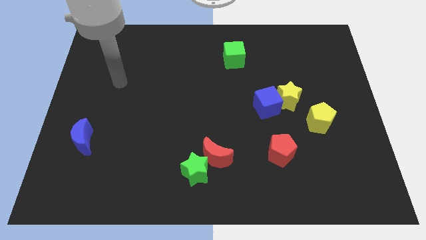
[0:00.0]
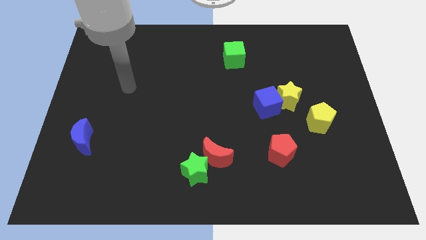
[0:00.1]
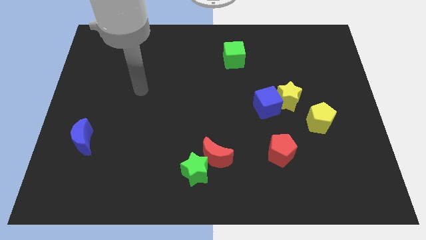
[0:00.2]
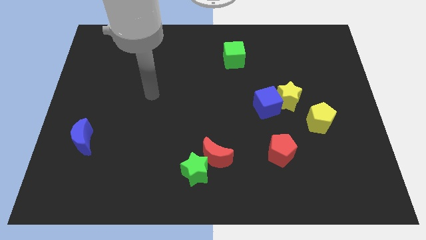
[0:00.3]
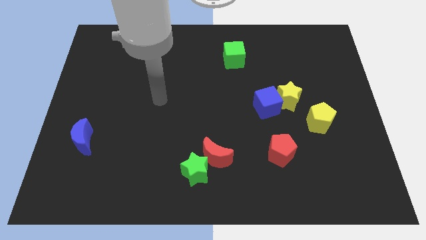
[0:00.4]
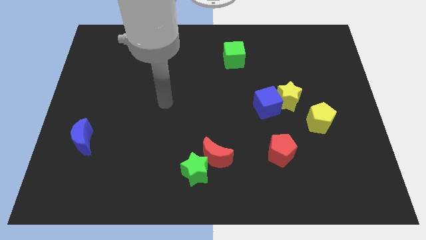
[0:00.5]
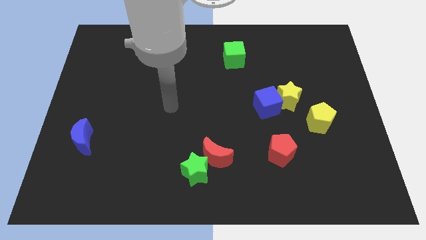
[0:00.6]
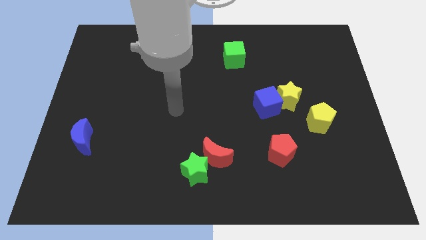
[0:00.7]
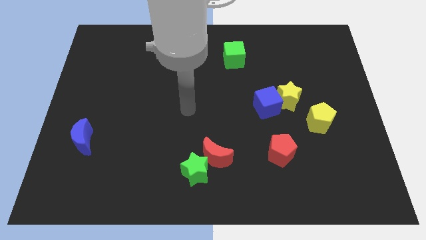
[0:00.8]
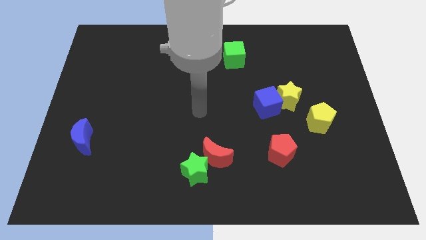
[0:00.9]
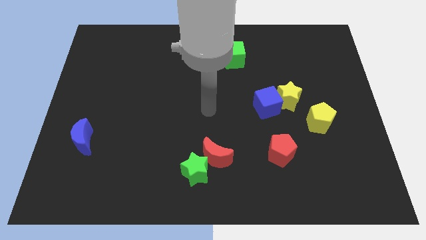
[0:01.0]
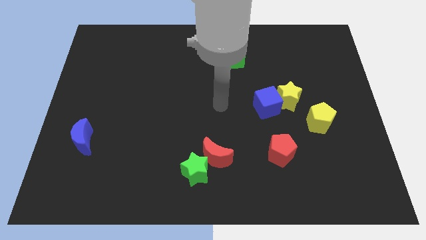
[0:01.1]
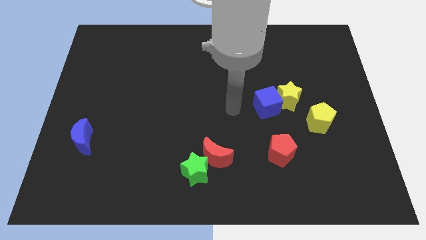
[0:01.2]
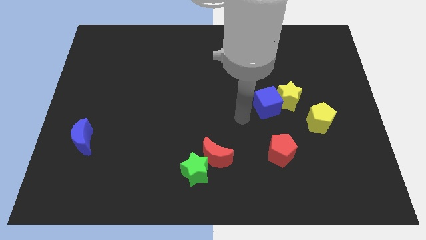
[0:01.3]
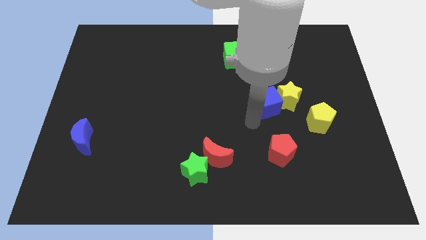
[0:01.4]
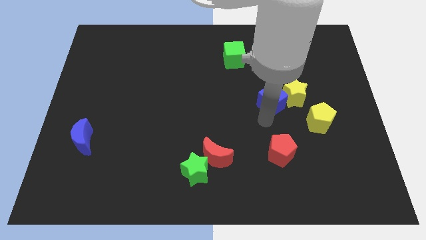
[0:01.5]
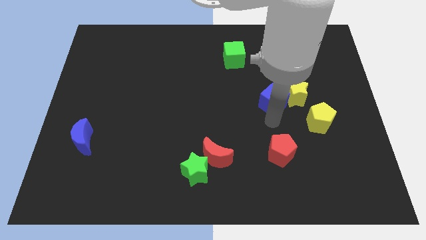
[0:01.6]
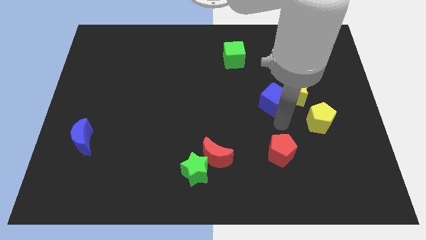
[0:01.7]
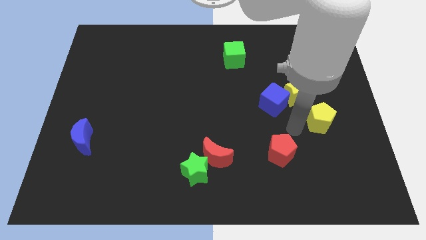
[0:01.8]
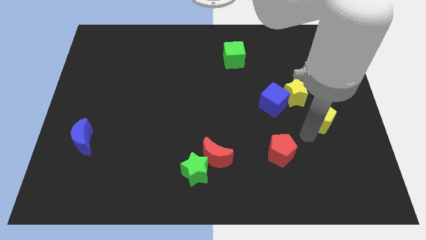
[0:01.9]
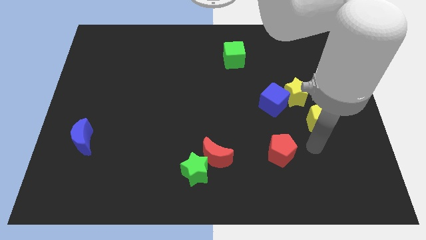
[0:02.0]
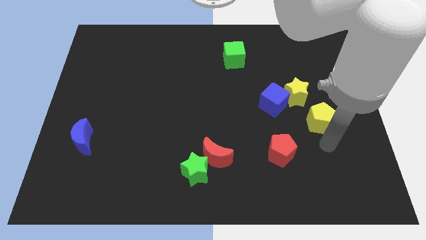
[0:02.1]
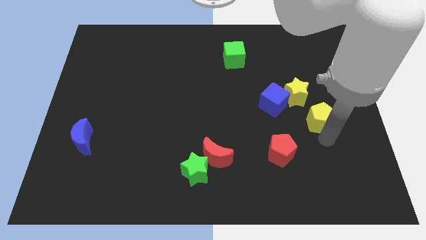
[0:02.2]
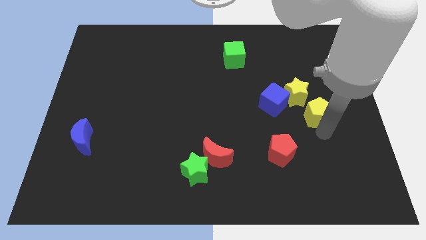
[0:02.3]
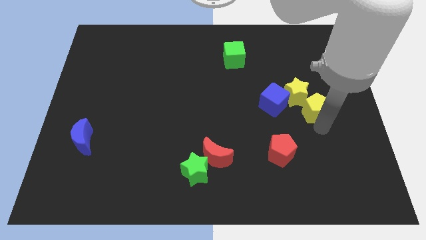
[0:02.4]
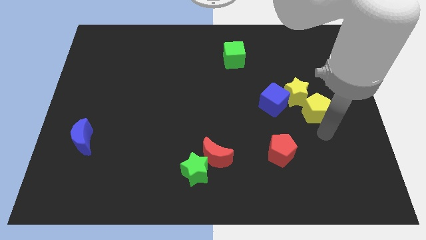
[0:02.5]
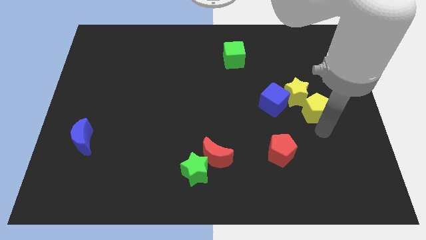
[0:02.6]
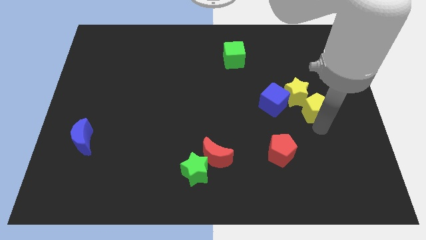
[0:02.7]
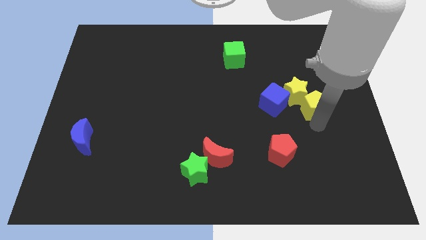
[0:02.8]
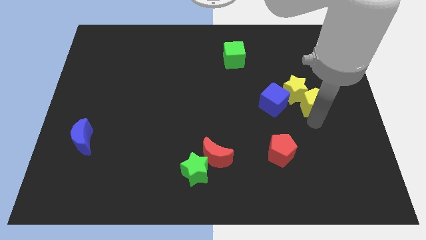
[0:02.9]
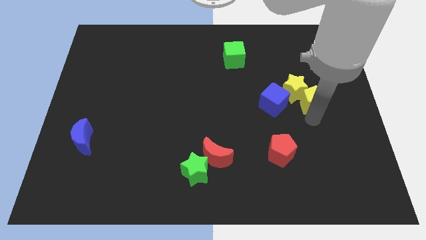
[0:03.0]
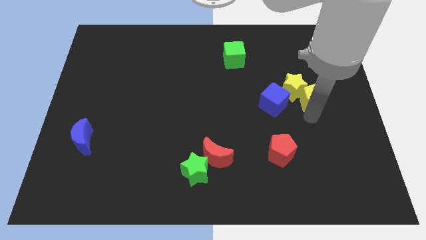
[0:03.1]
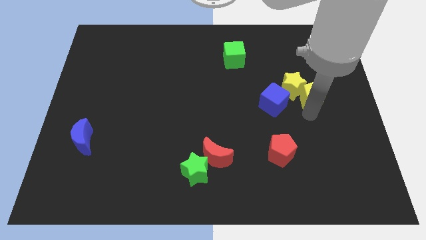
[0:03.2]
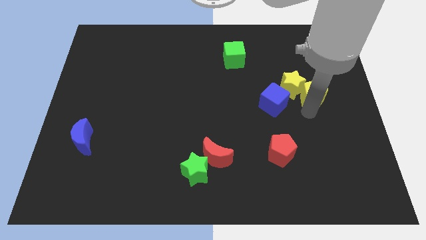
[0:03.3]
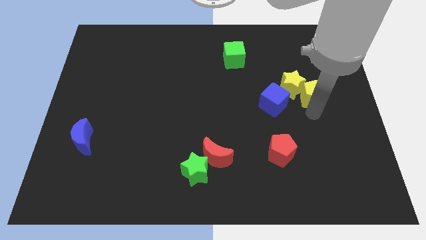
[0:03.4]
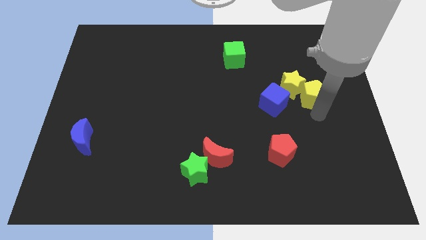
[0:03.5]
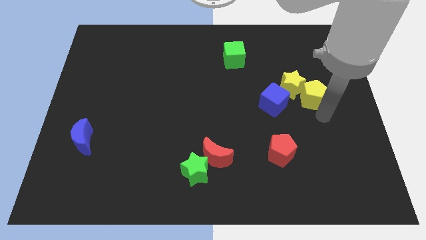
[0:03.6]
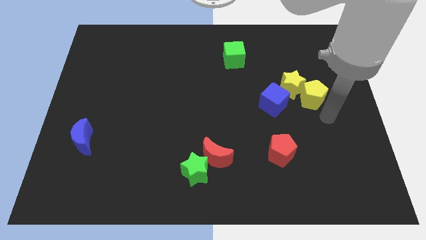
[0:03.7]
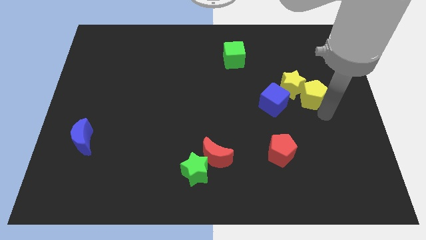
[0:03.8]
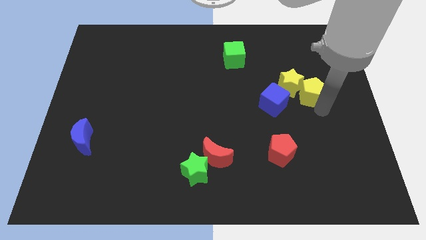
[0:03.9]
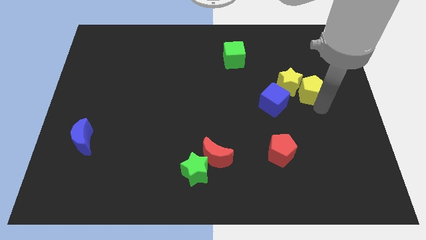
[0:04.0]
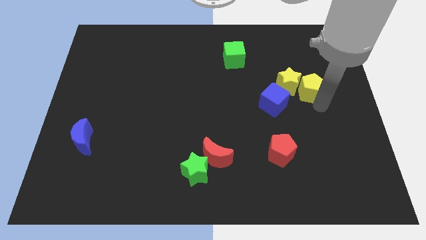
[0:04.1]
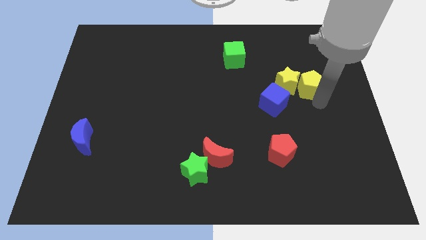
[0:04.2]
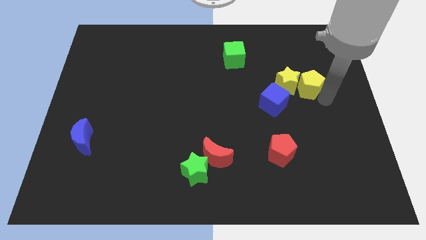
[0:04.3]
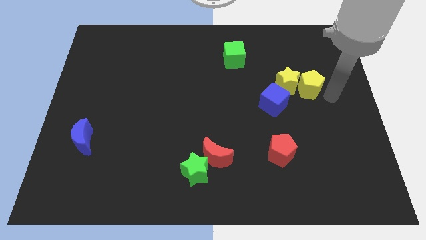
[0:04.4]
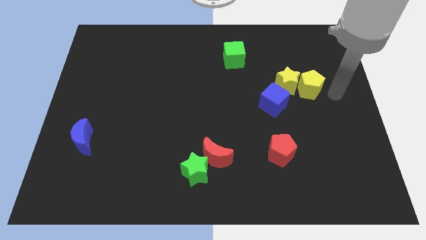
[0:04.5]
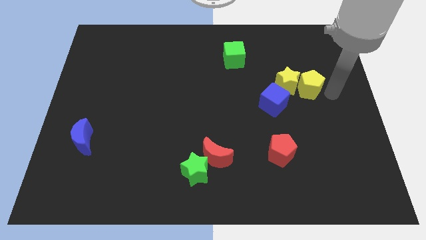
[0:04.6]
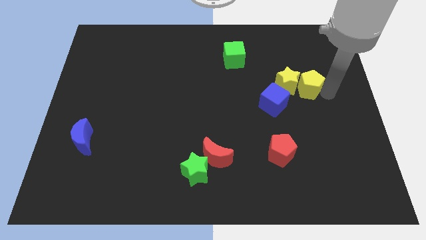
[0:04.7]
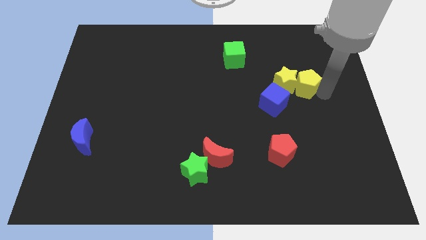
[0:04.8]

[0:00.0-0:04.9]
push the yellow pentagon a bit upwards and then left

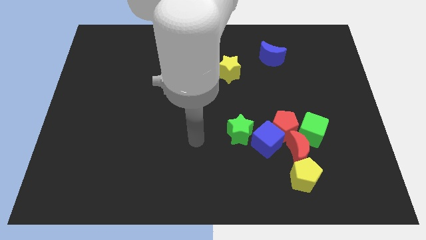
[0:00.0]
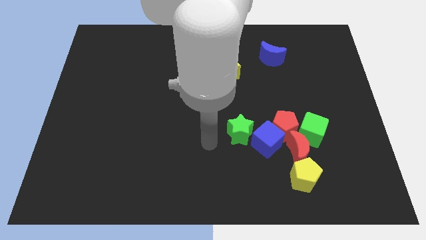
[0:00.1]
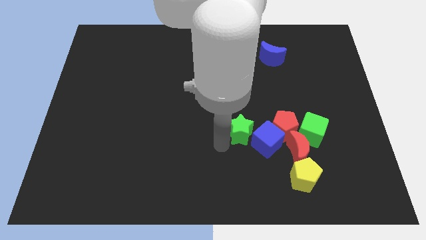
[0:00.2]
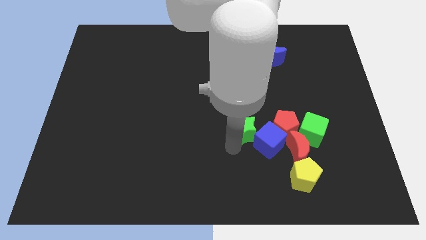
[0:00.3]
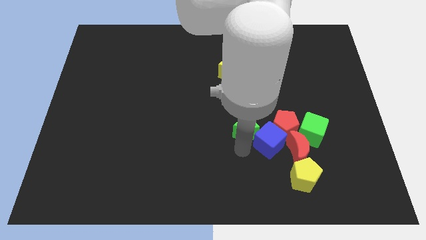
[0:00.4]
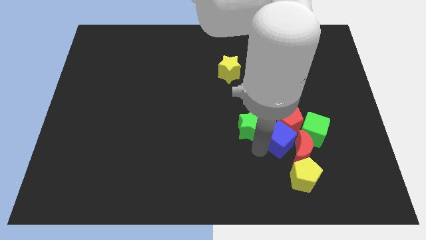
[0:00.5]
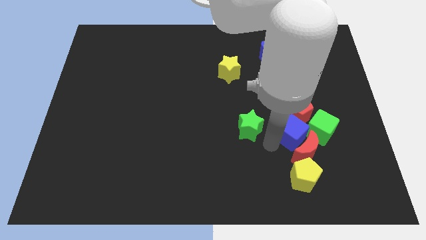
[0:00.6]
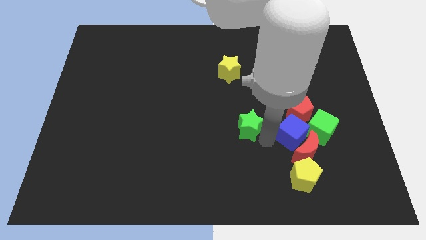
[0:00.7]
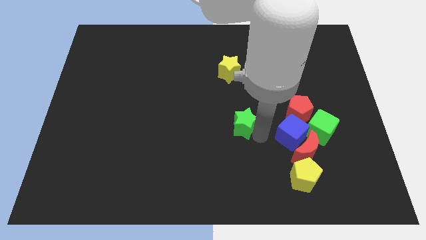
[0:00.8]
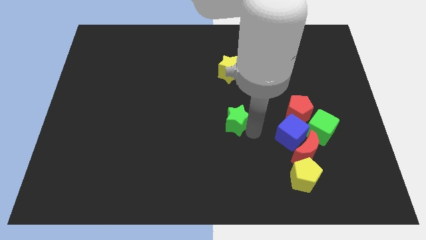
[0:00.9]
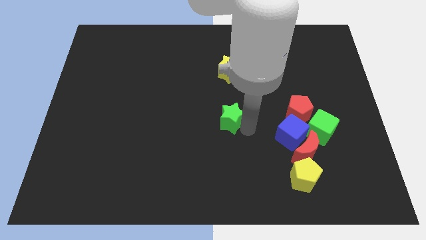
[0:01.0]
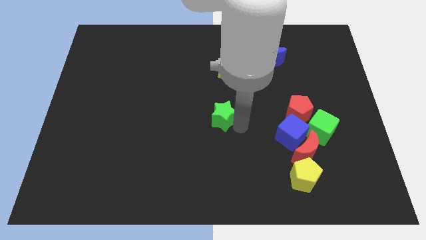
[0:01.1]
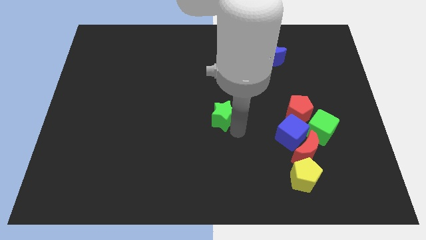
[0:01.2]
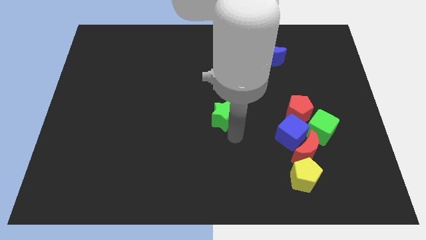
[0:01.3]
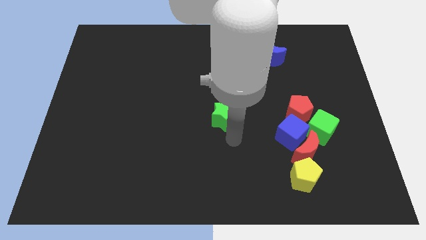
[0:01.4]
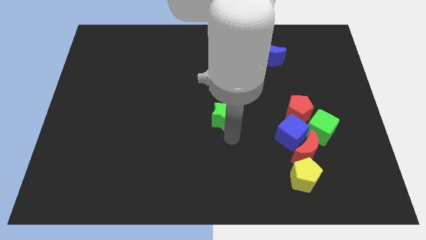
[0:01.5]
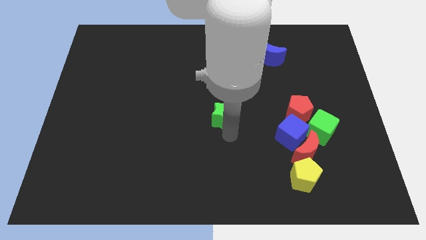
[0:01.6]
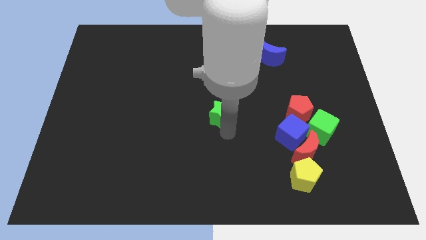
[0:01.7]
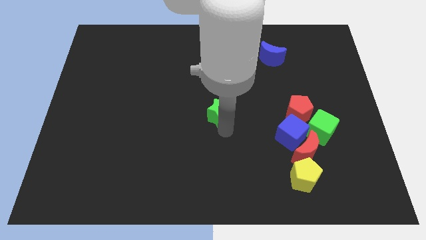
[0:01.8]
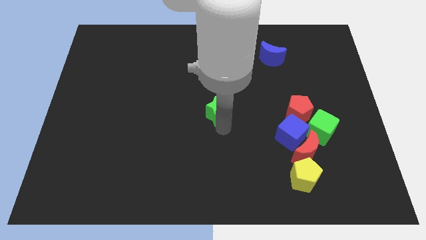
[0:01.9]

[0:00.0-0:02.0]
slightly slide the green star upwards and left diagonally

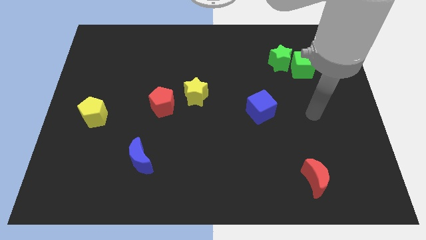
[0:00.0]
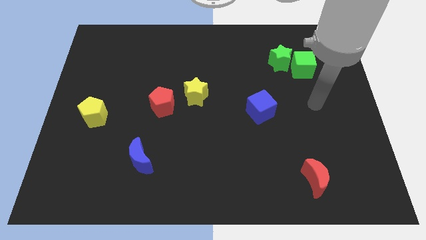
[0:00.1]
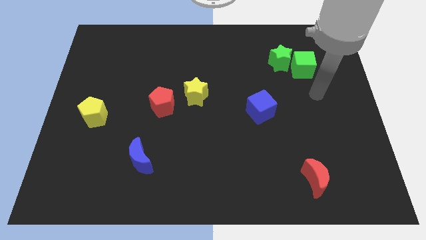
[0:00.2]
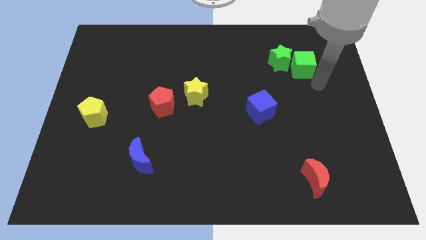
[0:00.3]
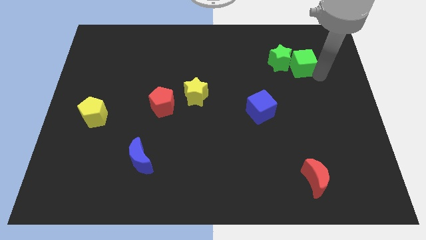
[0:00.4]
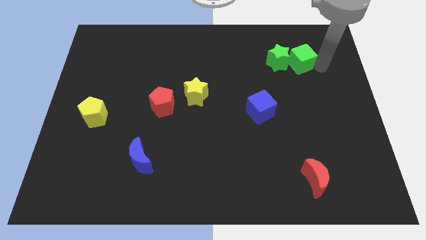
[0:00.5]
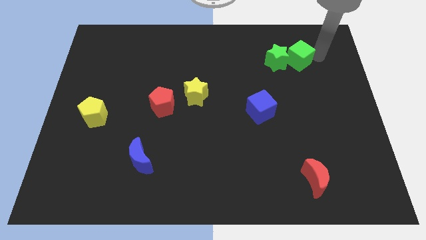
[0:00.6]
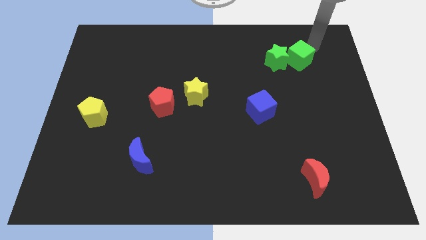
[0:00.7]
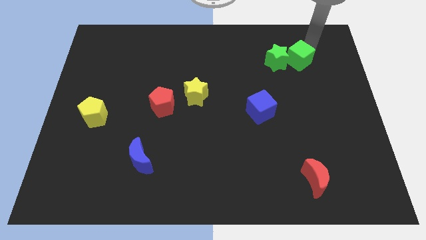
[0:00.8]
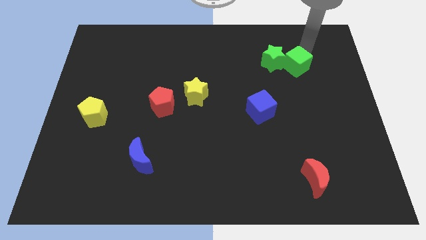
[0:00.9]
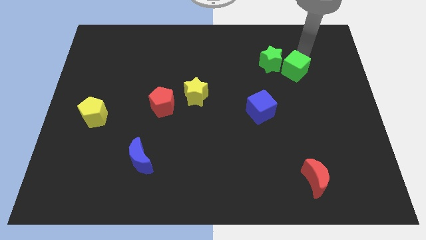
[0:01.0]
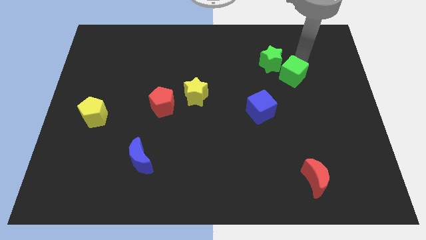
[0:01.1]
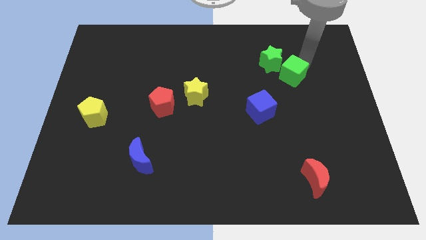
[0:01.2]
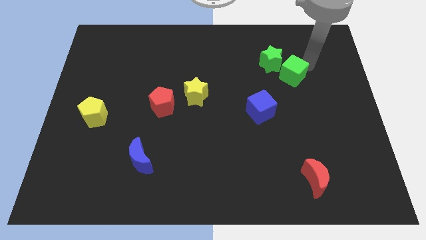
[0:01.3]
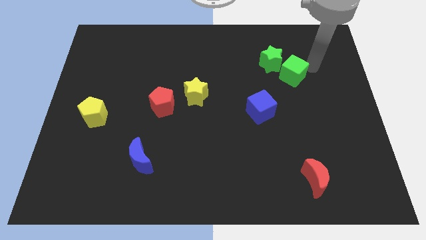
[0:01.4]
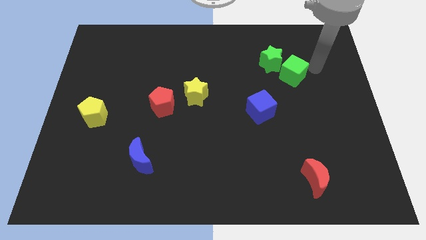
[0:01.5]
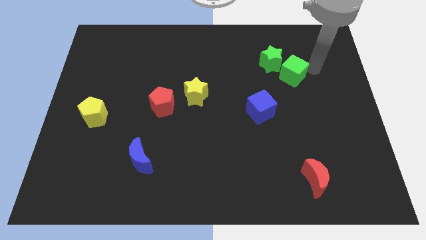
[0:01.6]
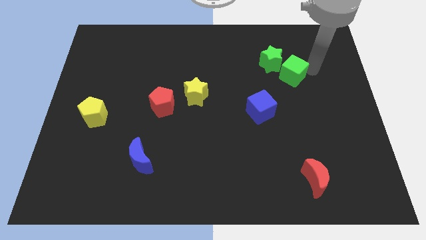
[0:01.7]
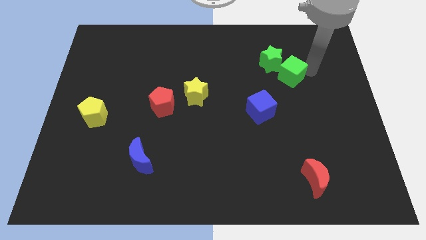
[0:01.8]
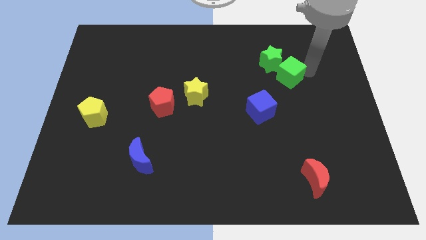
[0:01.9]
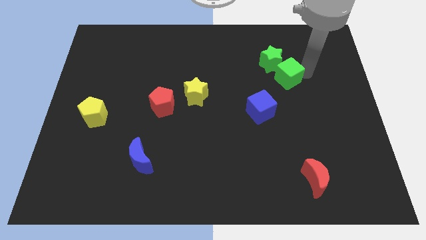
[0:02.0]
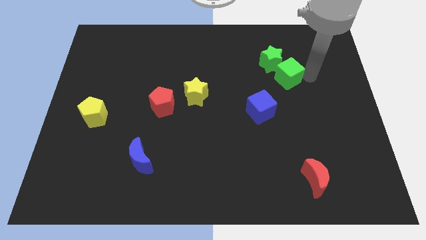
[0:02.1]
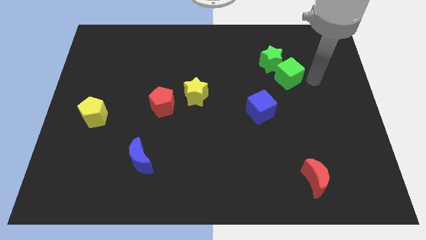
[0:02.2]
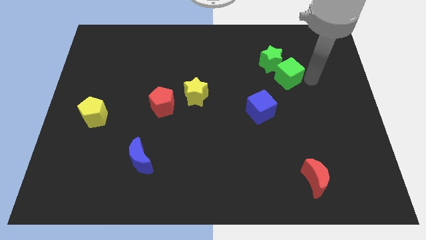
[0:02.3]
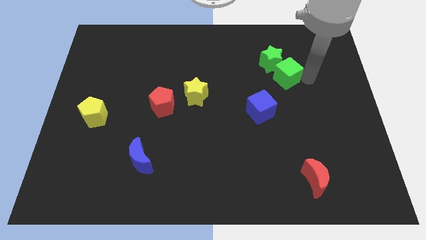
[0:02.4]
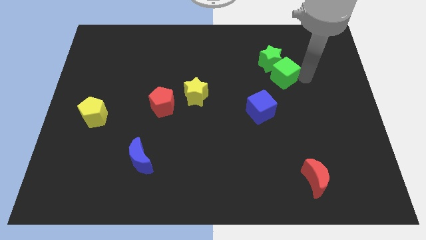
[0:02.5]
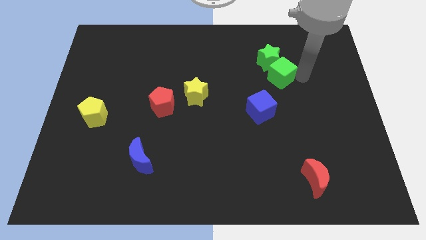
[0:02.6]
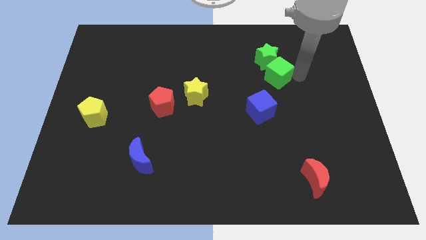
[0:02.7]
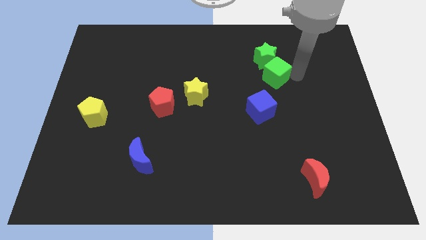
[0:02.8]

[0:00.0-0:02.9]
slightly move the green cube to the left
